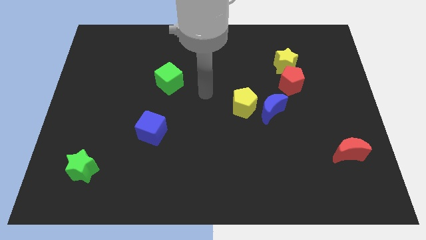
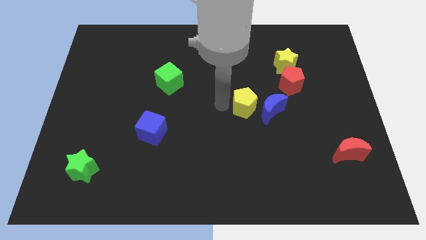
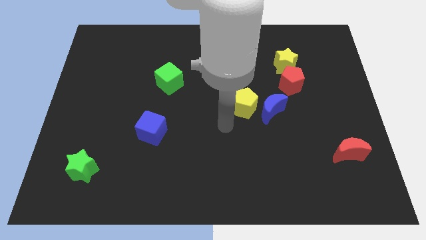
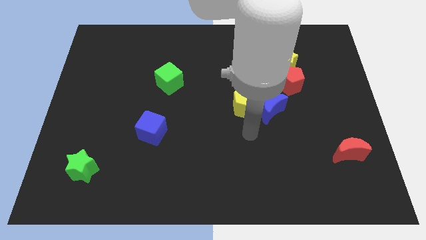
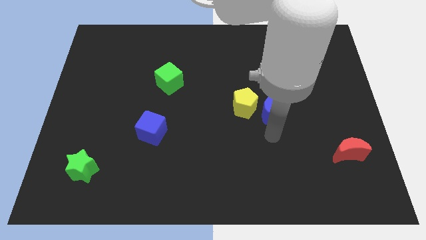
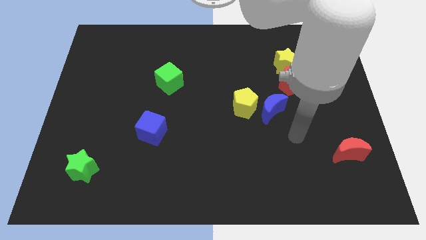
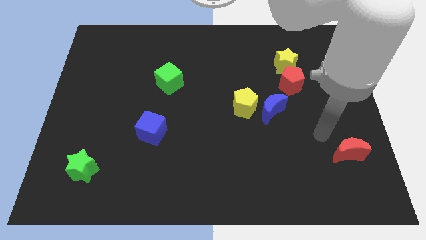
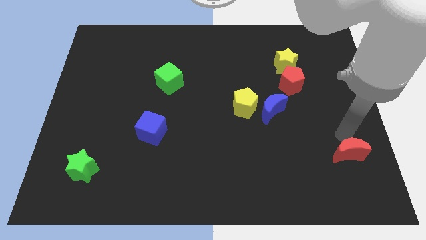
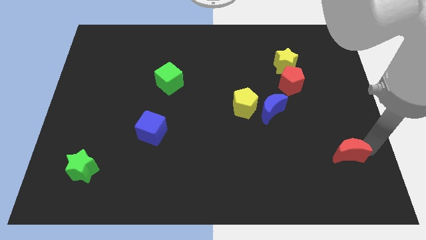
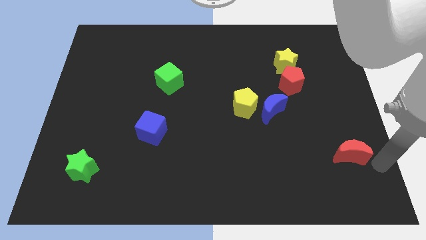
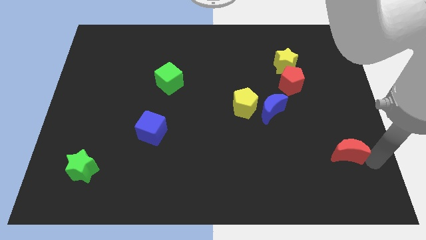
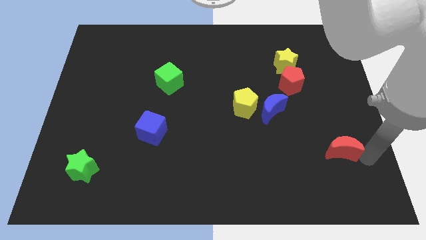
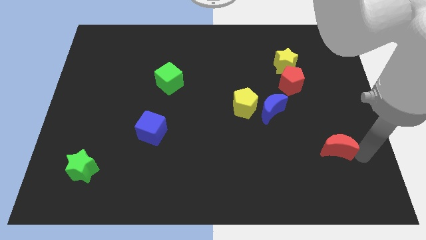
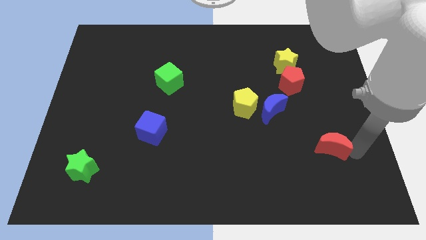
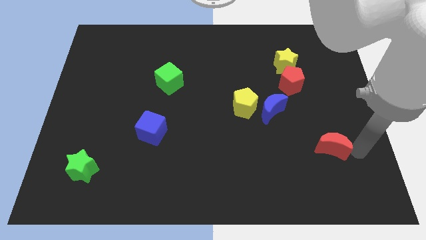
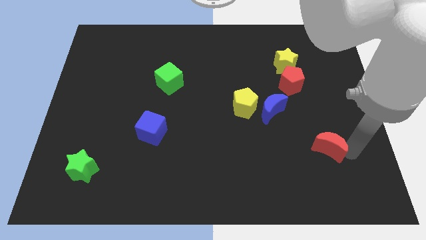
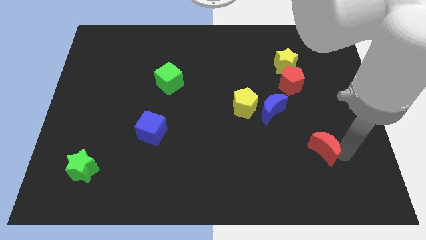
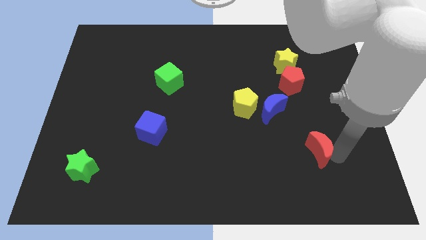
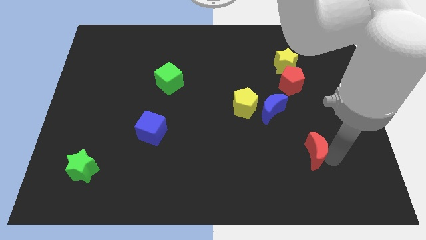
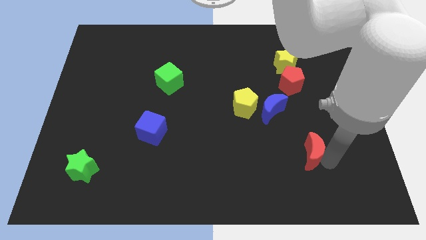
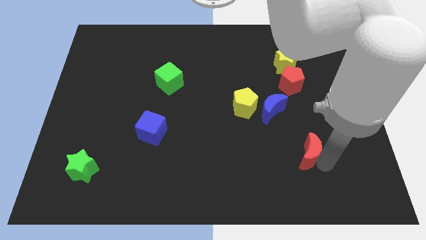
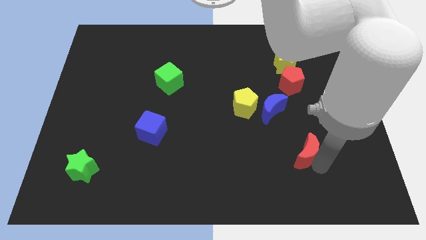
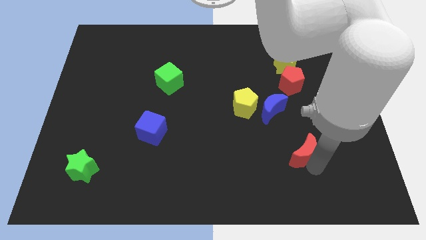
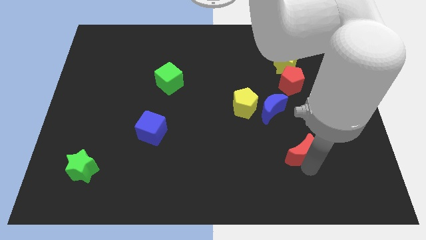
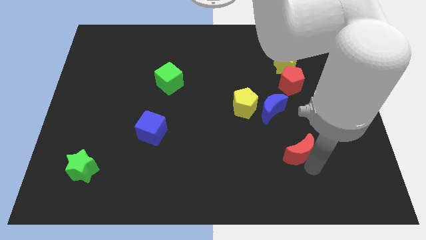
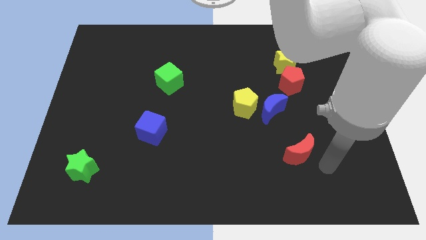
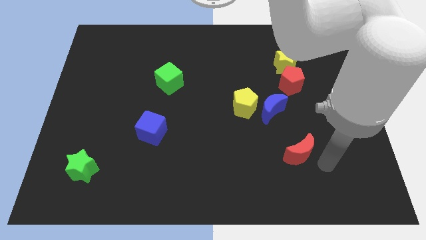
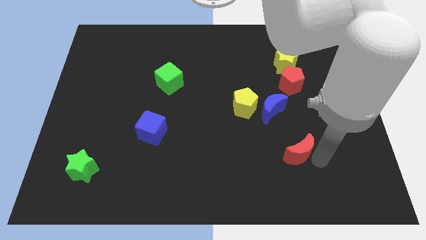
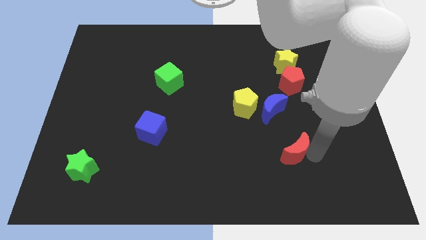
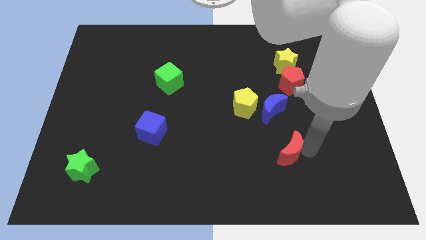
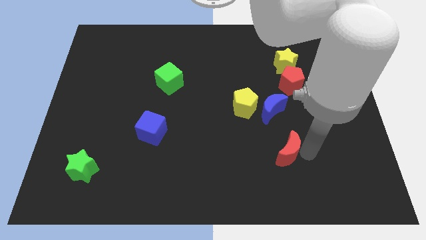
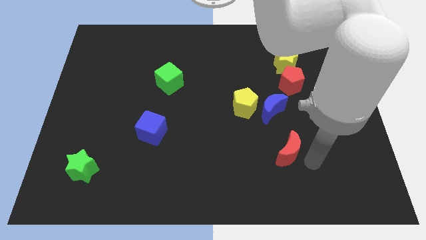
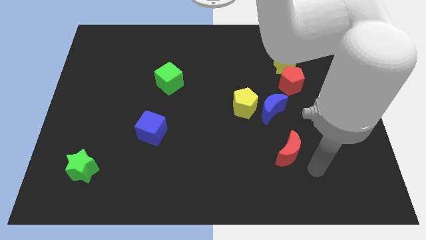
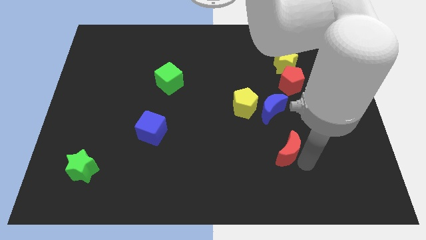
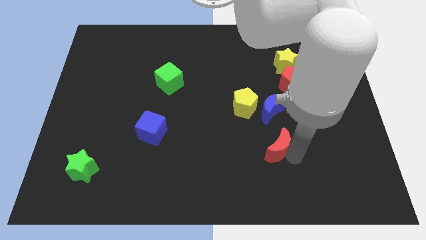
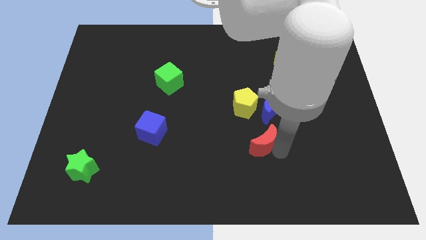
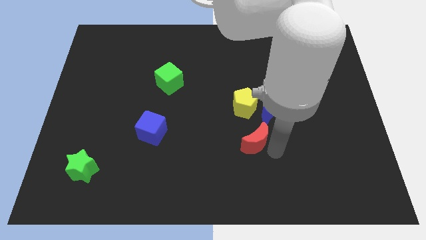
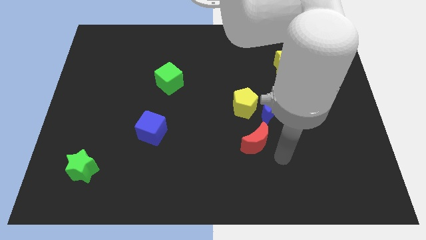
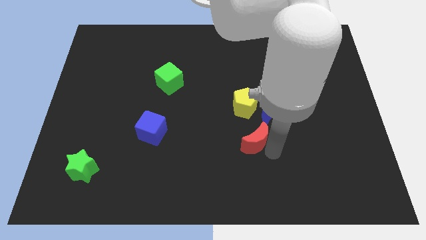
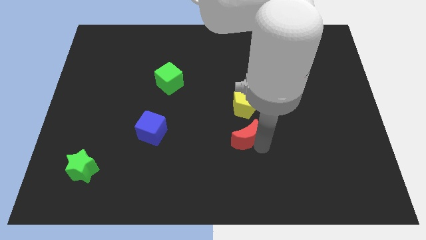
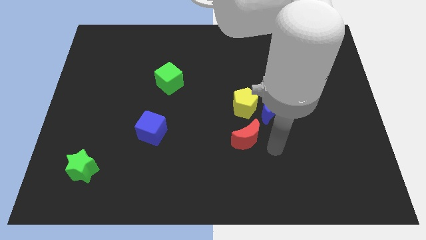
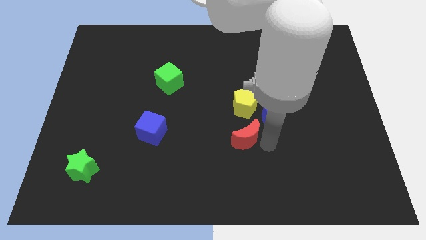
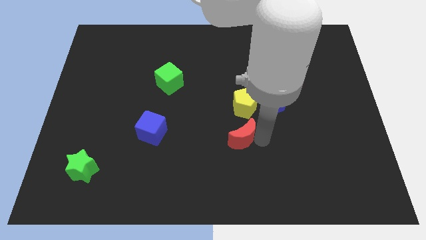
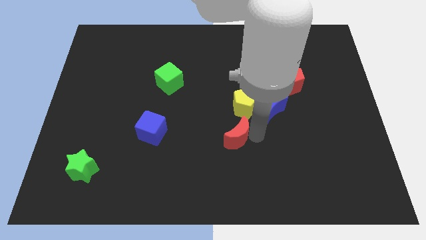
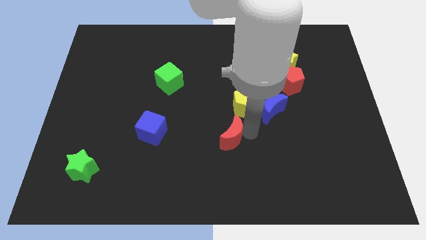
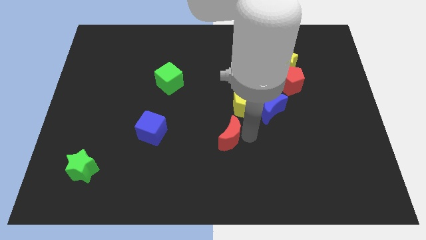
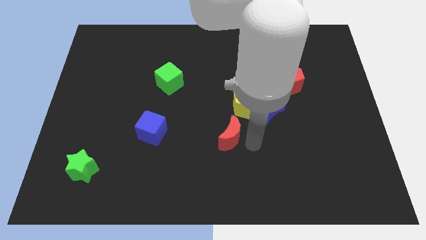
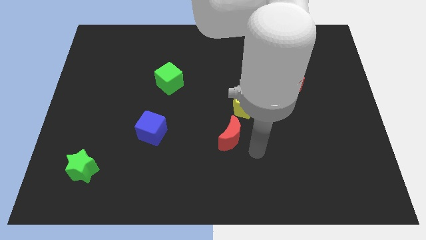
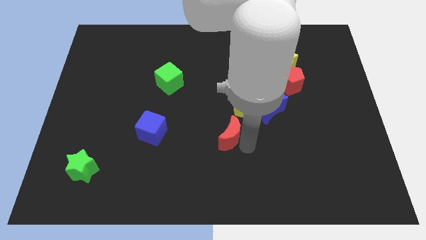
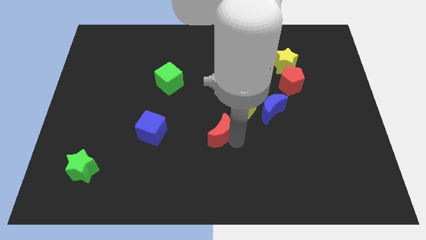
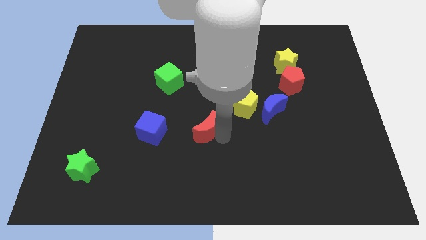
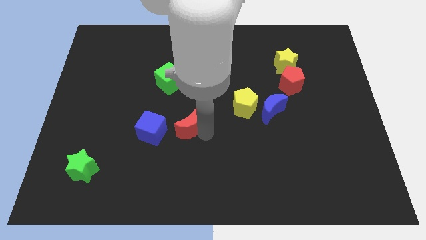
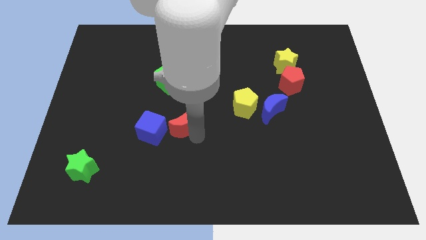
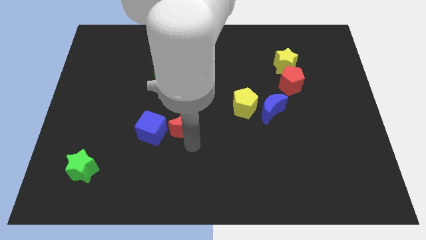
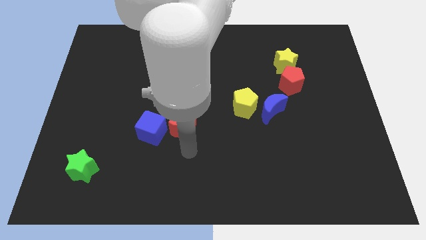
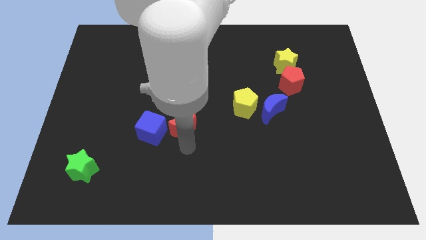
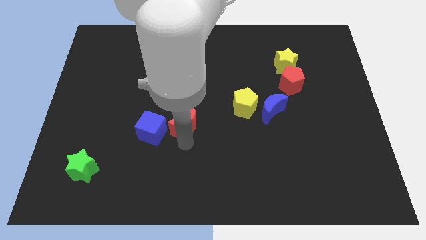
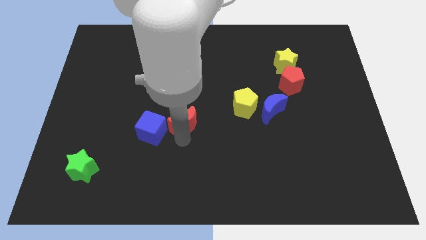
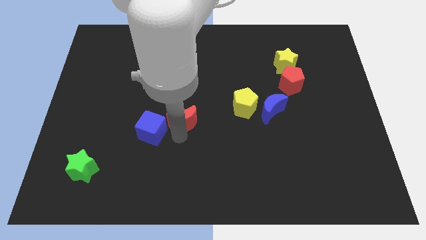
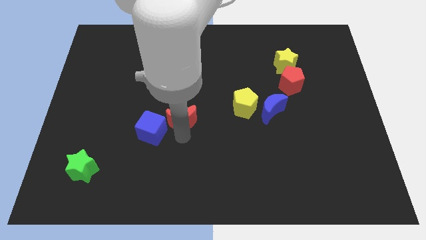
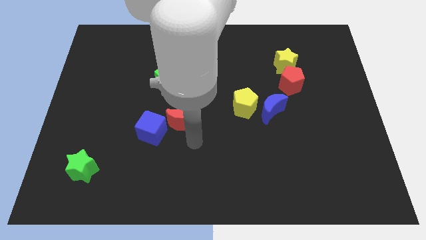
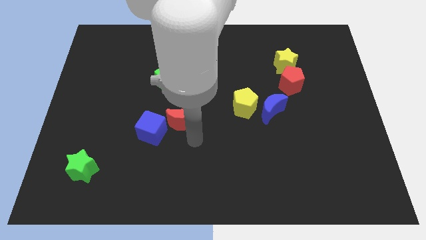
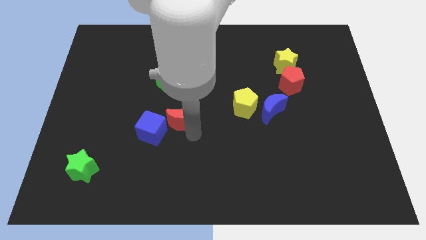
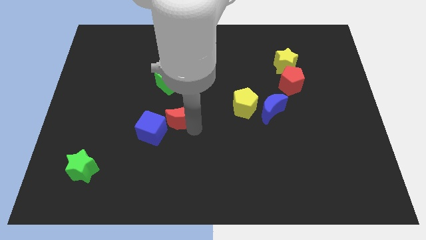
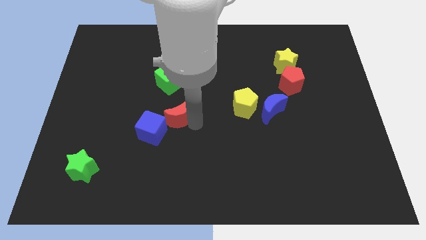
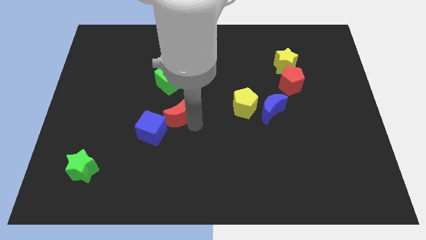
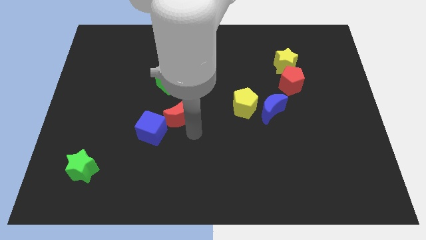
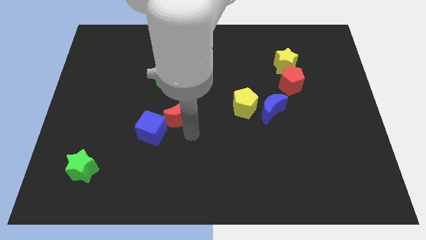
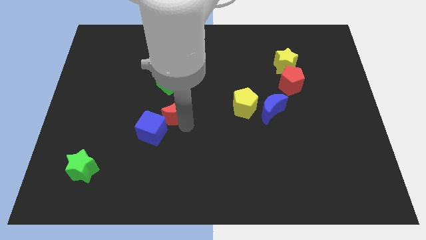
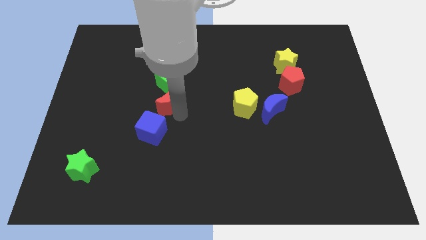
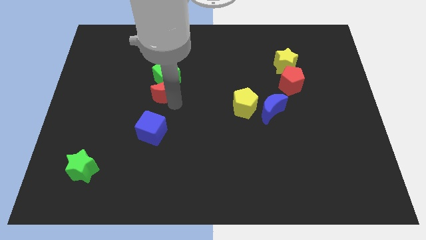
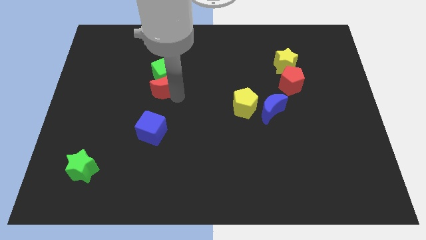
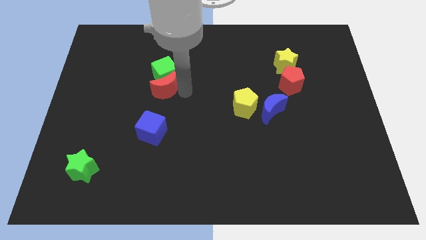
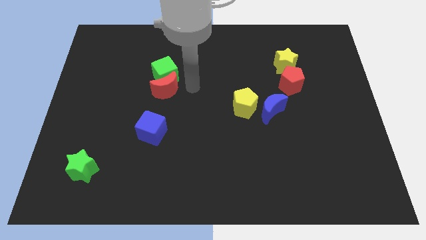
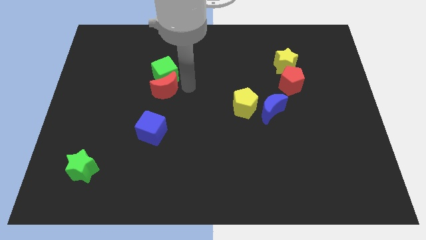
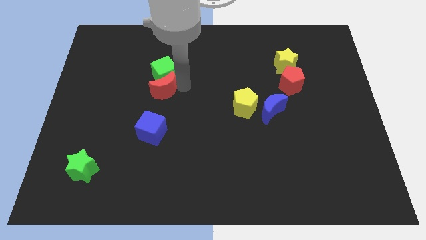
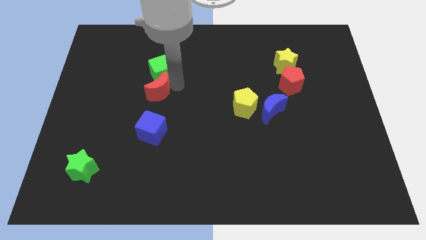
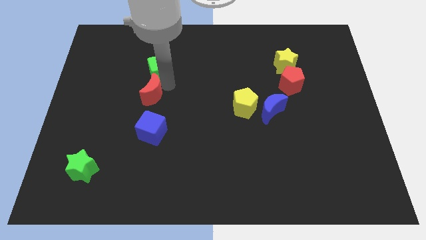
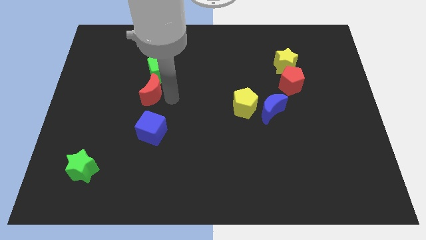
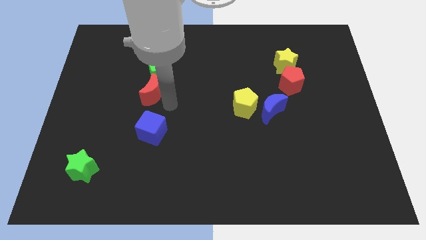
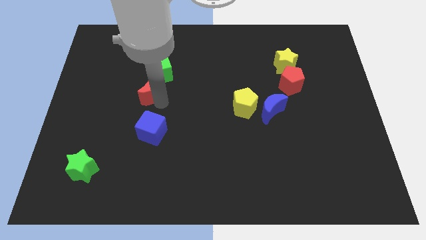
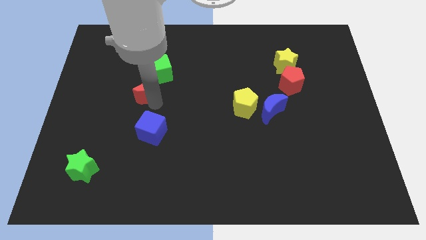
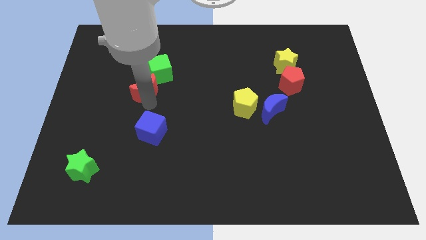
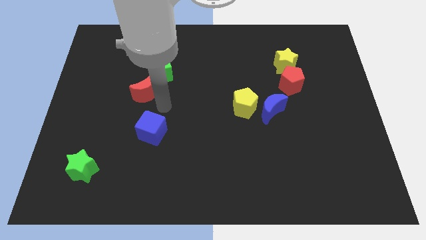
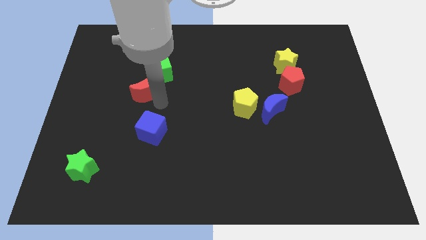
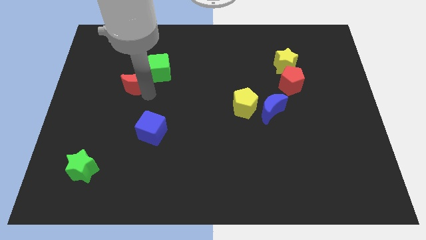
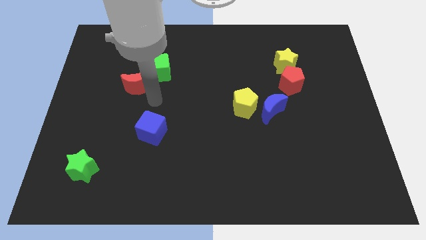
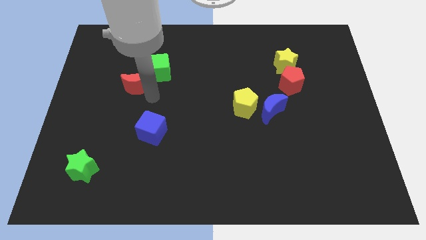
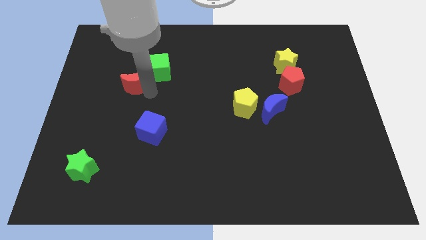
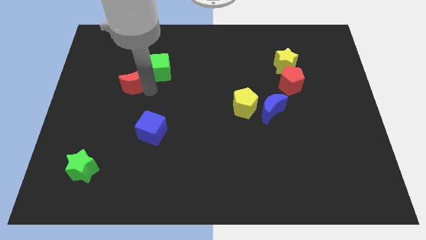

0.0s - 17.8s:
put the red moon left of the green cube
